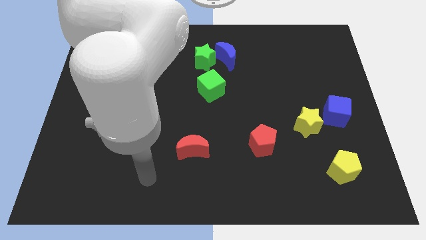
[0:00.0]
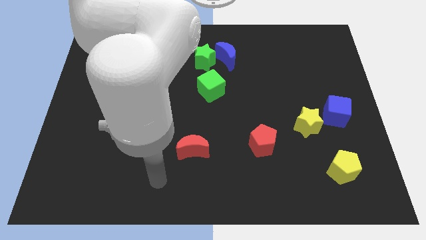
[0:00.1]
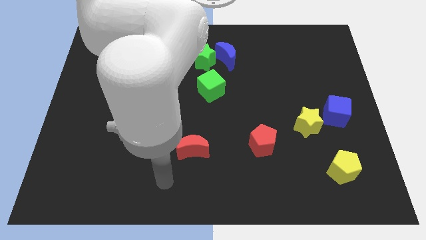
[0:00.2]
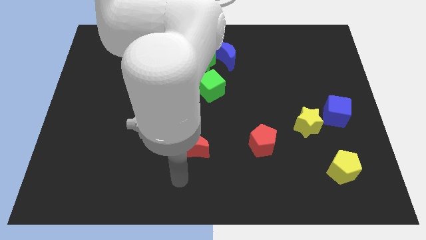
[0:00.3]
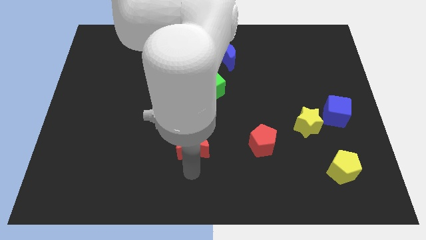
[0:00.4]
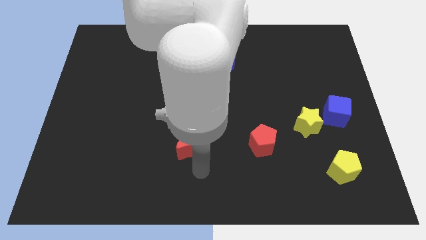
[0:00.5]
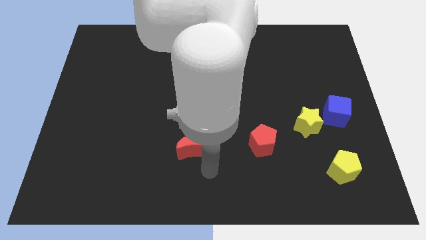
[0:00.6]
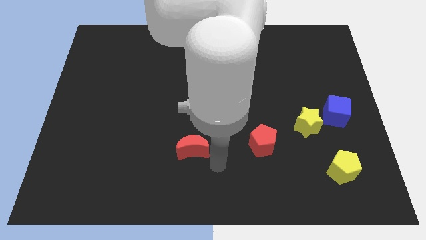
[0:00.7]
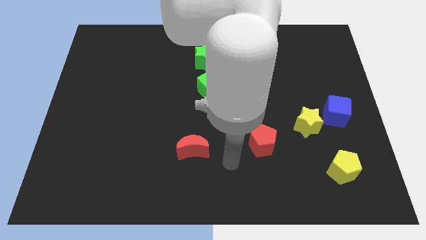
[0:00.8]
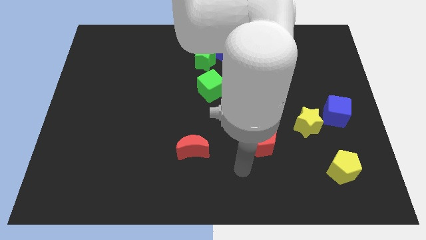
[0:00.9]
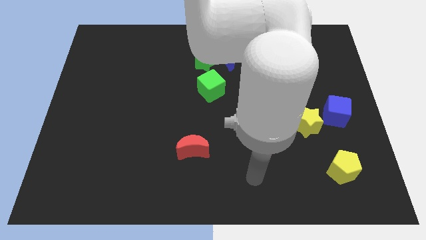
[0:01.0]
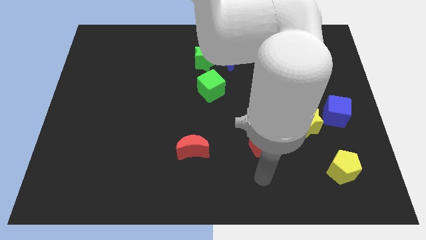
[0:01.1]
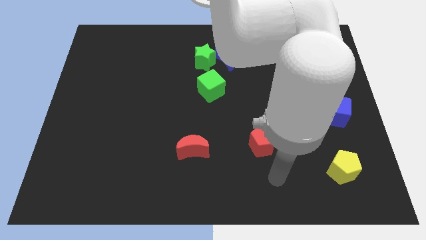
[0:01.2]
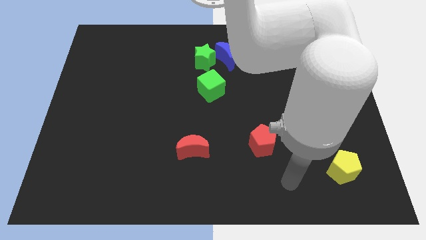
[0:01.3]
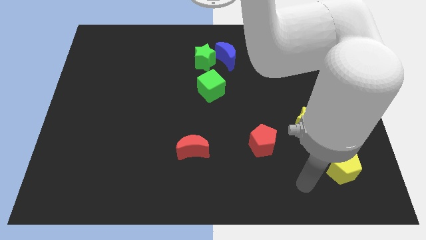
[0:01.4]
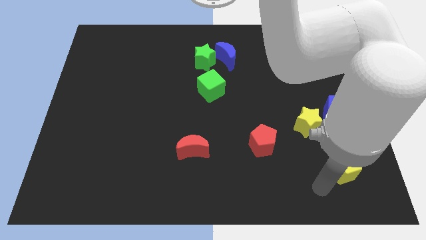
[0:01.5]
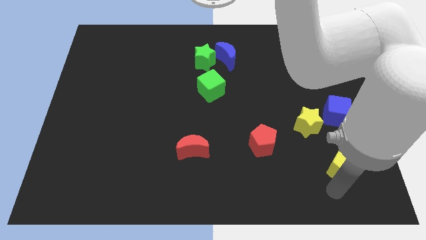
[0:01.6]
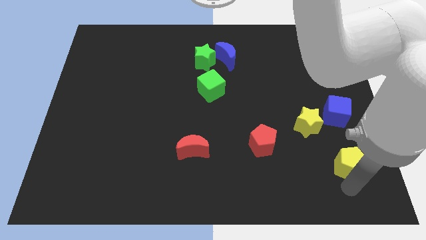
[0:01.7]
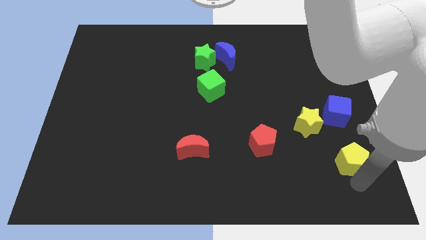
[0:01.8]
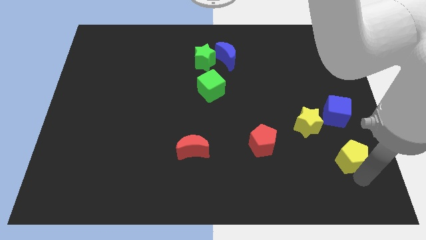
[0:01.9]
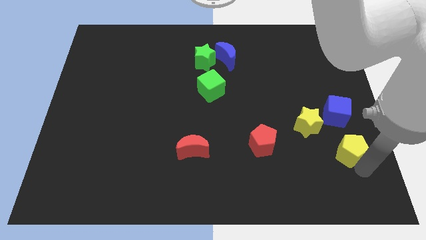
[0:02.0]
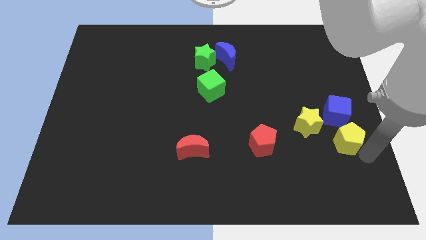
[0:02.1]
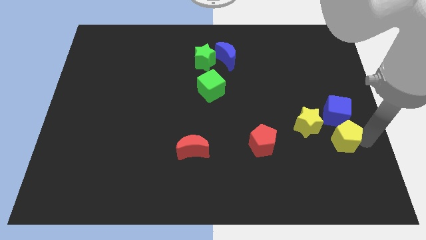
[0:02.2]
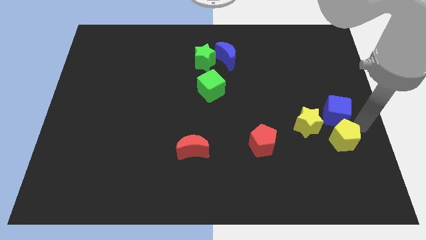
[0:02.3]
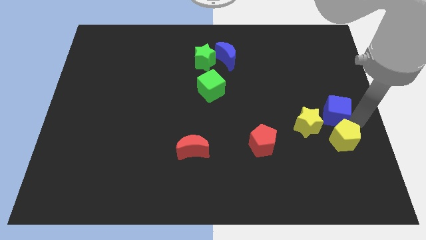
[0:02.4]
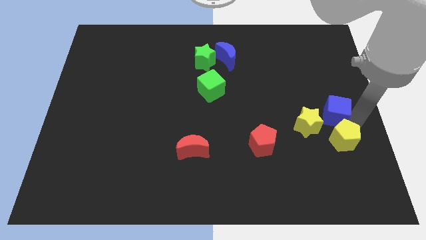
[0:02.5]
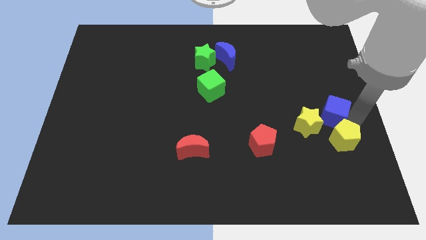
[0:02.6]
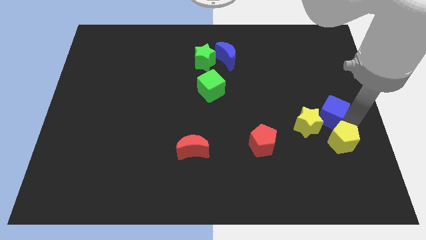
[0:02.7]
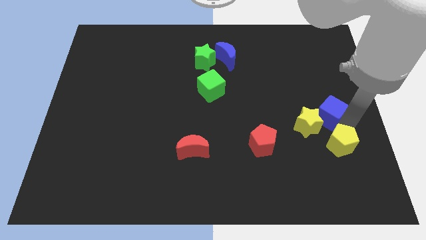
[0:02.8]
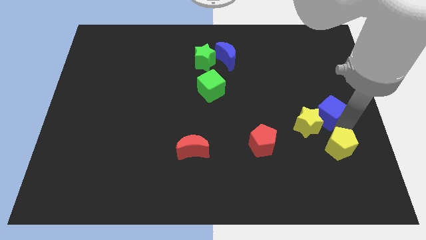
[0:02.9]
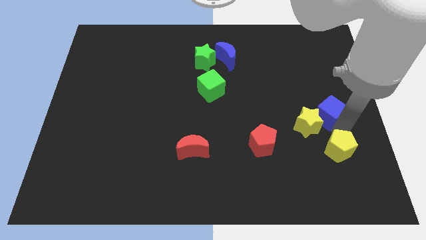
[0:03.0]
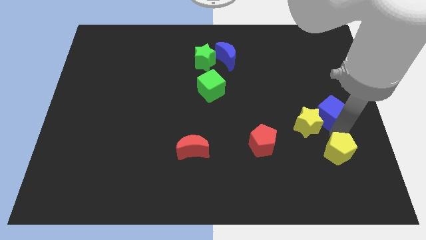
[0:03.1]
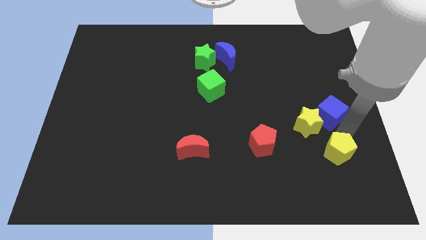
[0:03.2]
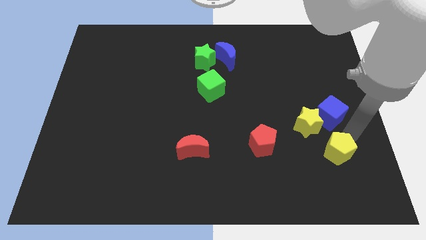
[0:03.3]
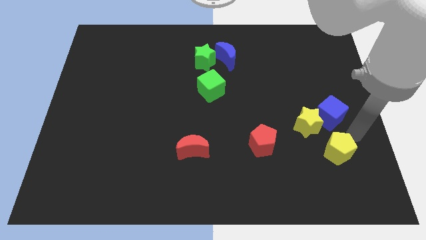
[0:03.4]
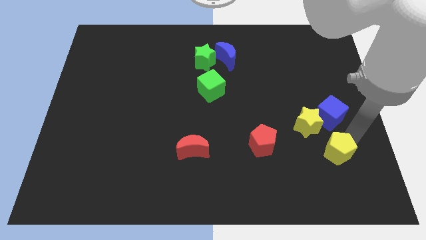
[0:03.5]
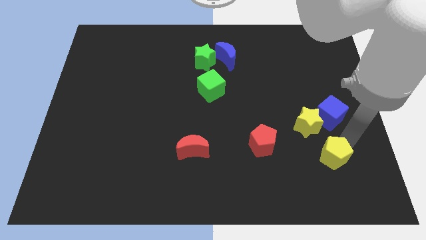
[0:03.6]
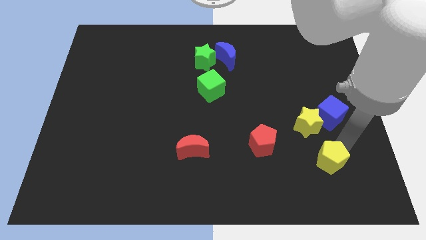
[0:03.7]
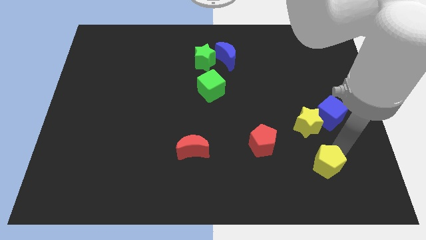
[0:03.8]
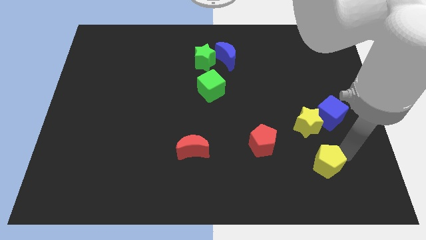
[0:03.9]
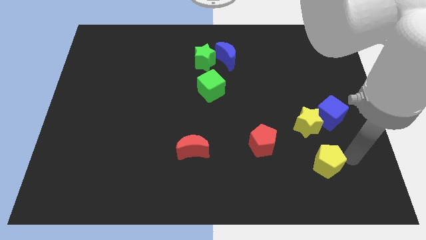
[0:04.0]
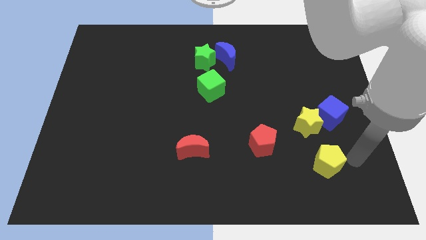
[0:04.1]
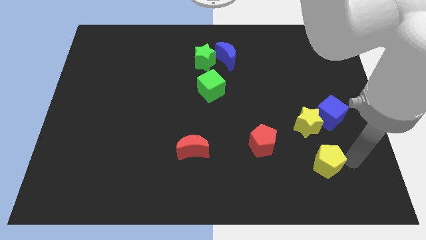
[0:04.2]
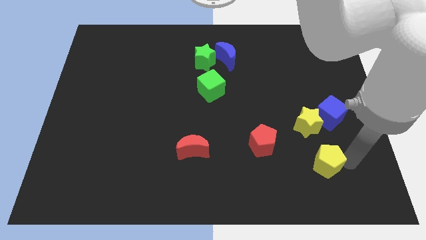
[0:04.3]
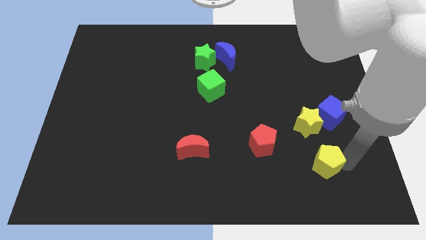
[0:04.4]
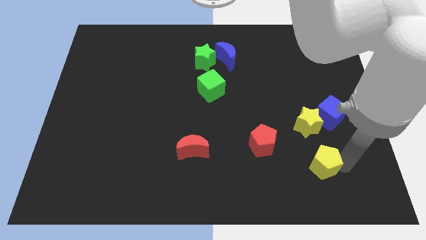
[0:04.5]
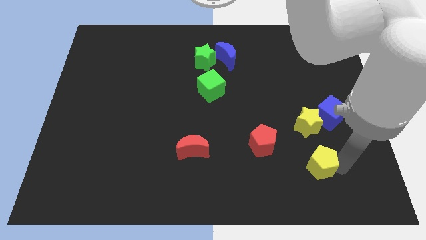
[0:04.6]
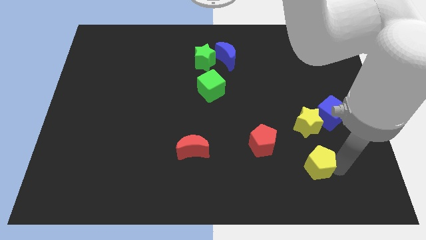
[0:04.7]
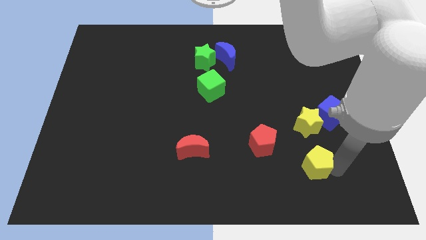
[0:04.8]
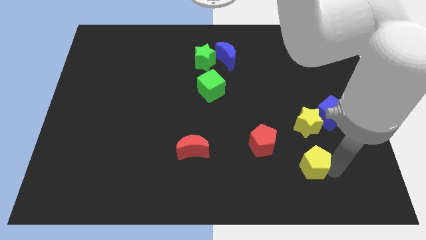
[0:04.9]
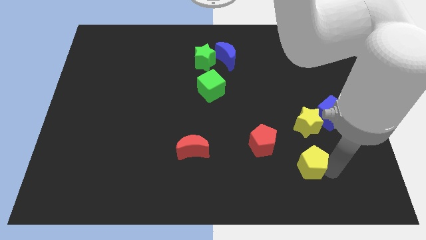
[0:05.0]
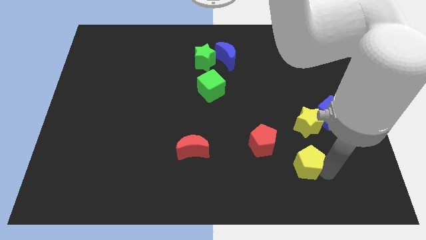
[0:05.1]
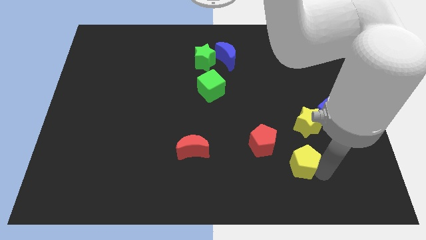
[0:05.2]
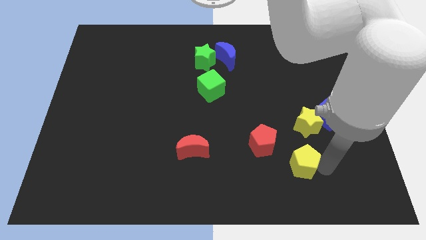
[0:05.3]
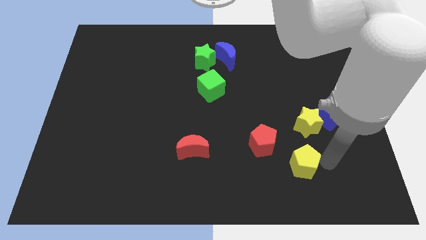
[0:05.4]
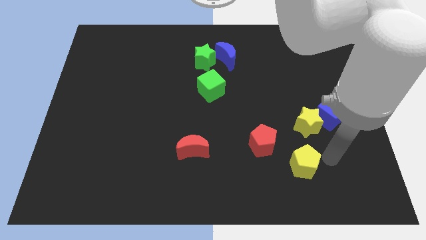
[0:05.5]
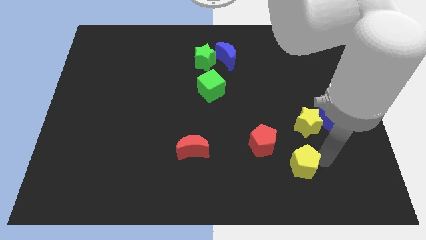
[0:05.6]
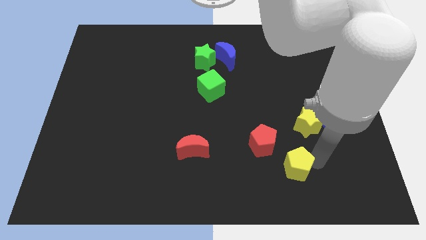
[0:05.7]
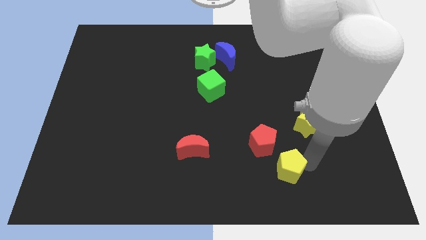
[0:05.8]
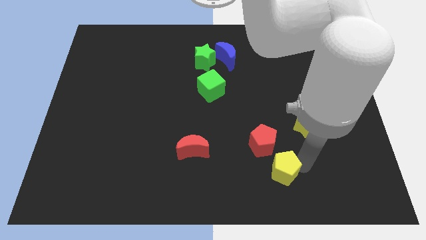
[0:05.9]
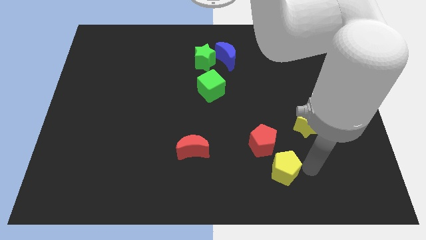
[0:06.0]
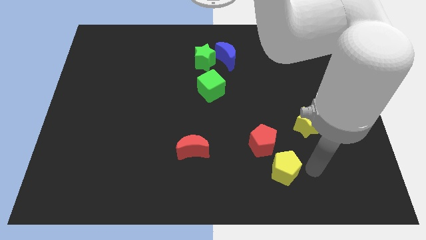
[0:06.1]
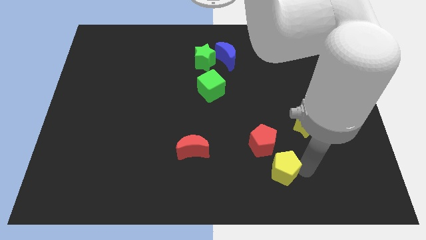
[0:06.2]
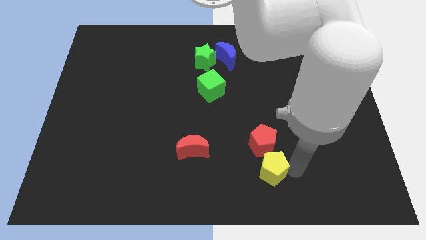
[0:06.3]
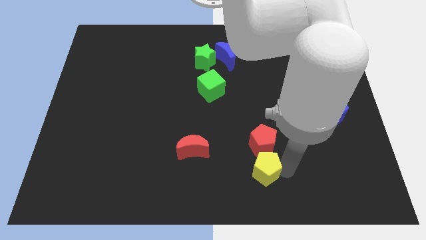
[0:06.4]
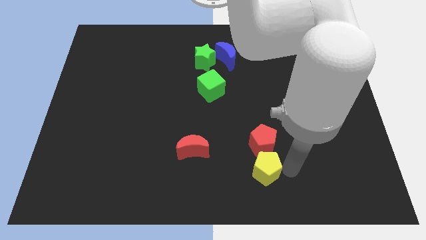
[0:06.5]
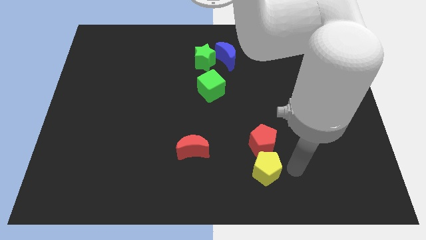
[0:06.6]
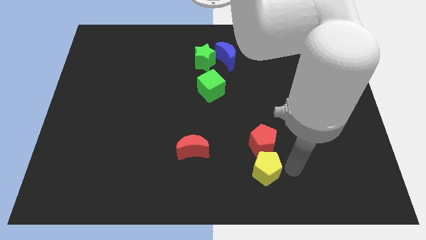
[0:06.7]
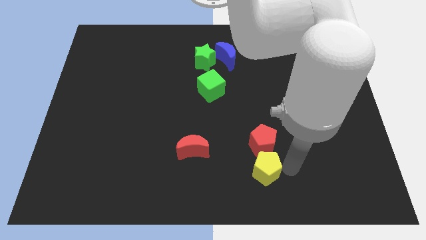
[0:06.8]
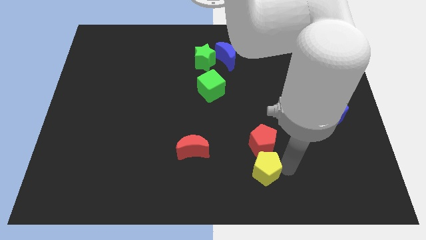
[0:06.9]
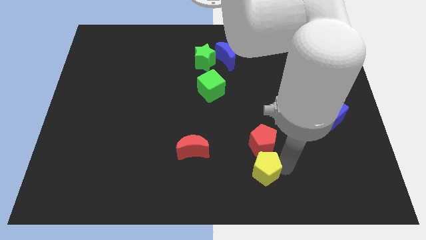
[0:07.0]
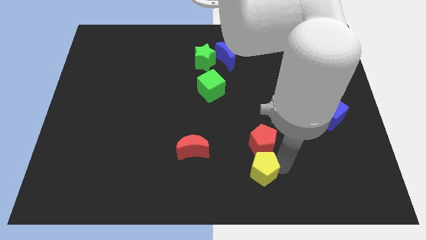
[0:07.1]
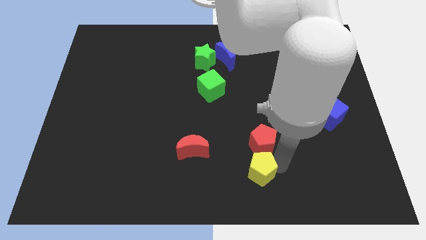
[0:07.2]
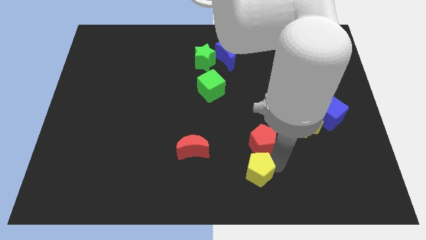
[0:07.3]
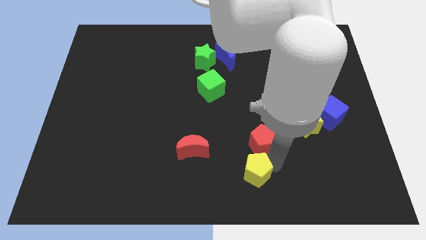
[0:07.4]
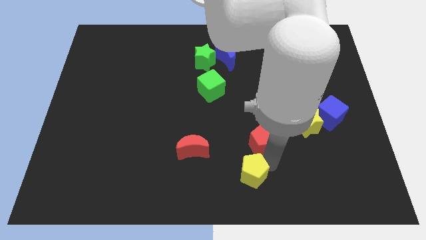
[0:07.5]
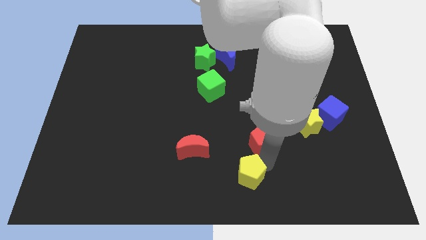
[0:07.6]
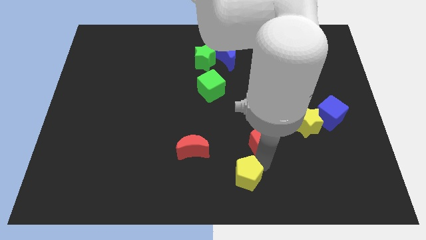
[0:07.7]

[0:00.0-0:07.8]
push the yellow pentagon left

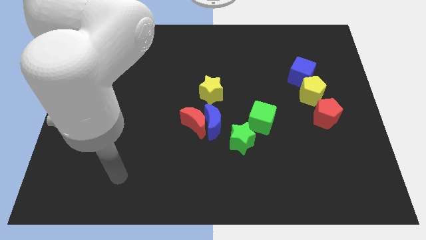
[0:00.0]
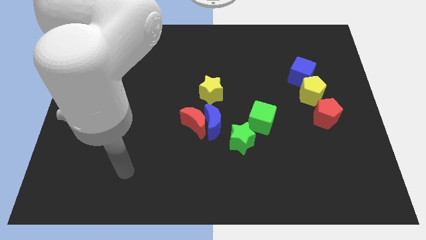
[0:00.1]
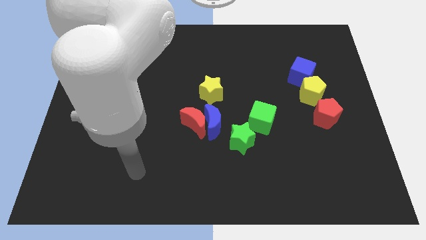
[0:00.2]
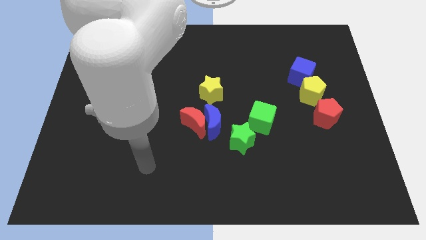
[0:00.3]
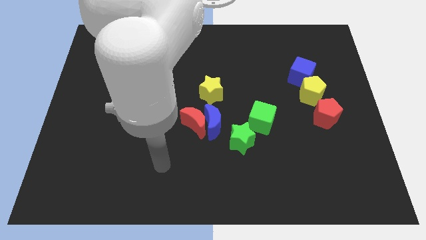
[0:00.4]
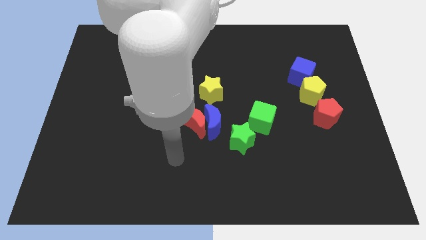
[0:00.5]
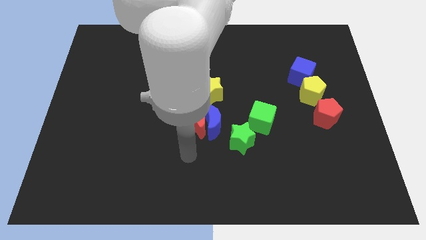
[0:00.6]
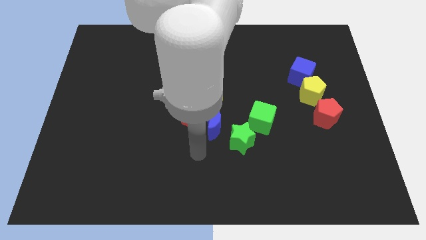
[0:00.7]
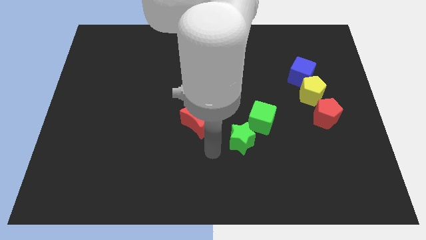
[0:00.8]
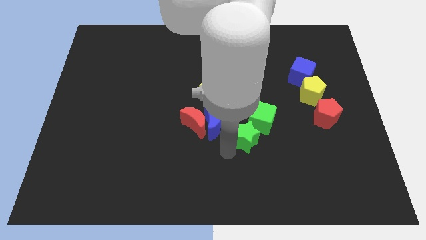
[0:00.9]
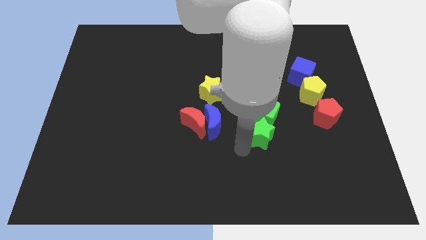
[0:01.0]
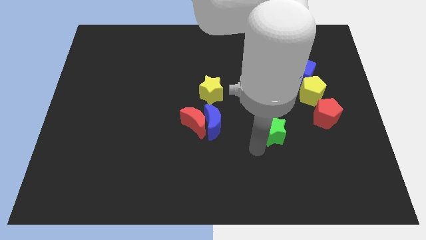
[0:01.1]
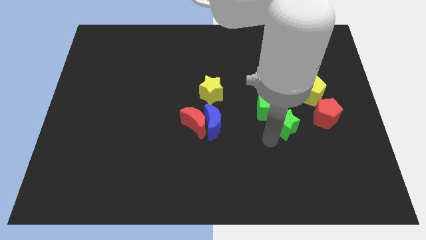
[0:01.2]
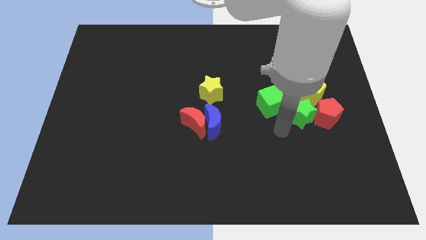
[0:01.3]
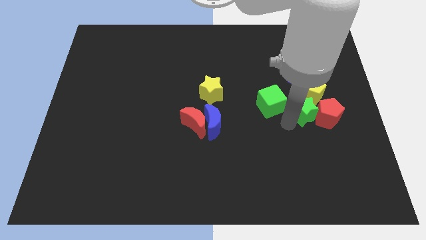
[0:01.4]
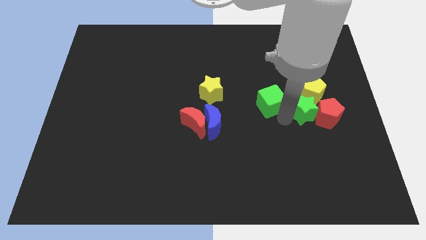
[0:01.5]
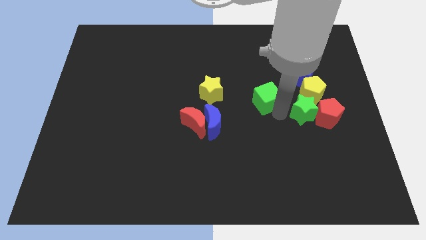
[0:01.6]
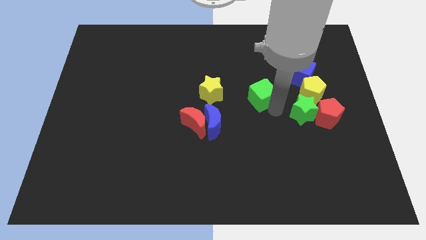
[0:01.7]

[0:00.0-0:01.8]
slightly move the green cube upwards
